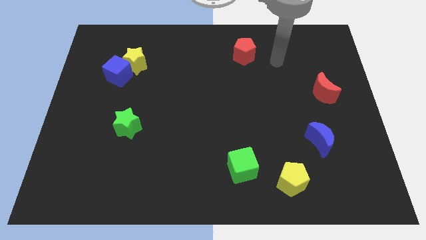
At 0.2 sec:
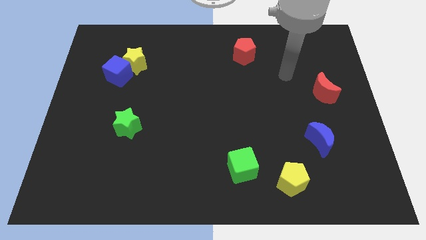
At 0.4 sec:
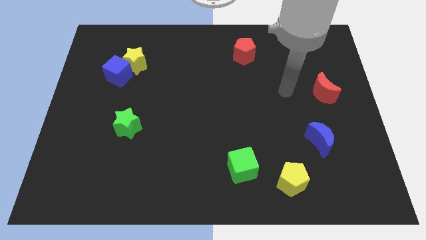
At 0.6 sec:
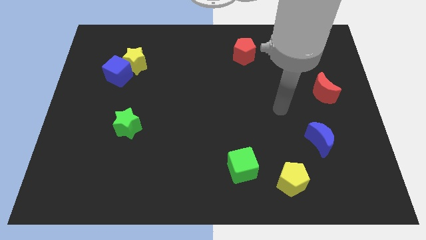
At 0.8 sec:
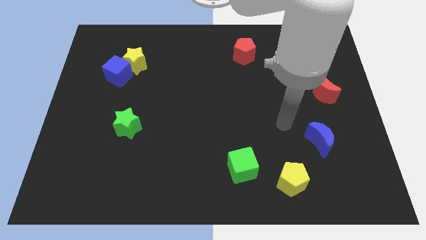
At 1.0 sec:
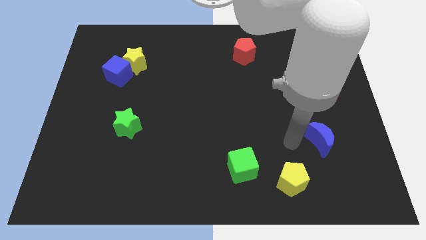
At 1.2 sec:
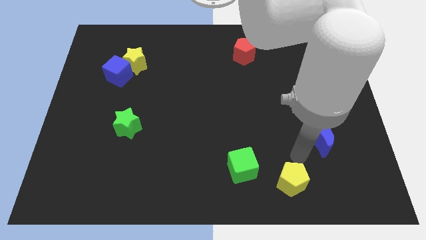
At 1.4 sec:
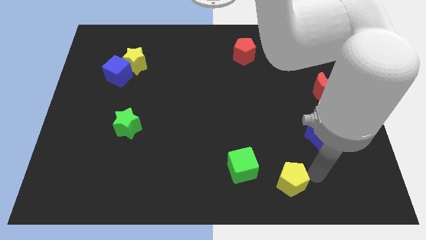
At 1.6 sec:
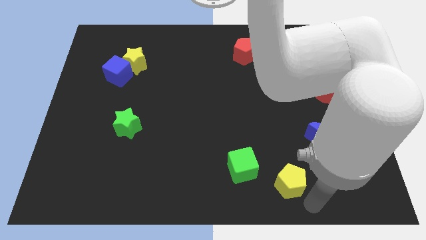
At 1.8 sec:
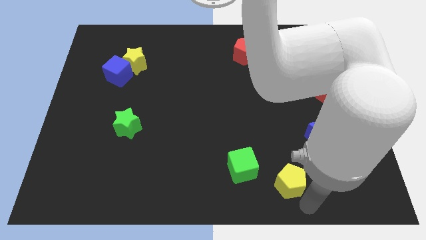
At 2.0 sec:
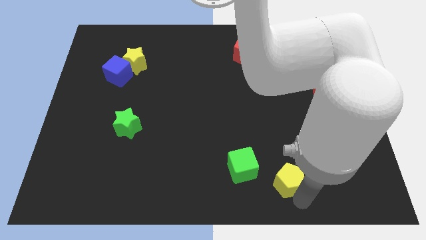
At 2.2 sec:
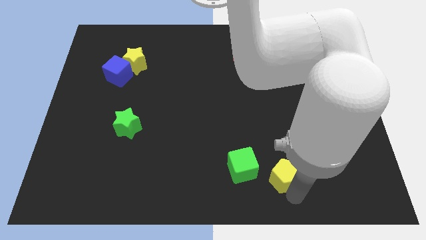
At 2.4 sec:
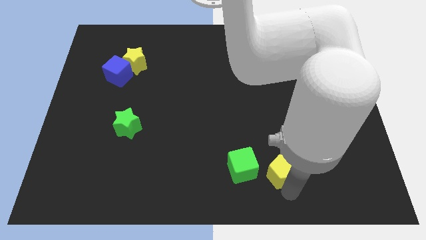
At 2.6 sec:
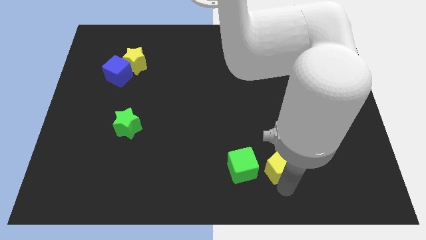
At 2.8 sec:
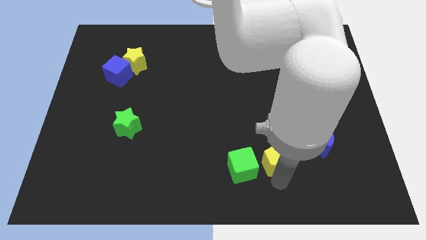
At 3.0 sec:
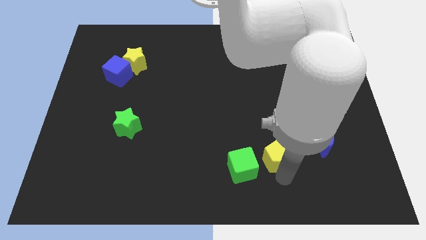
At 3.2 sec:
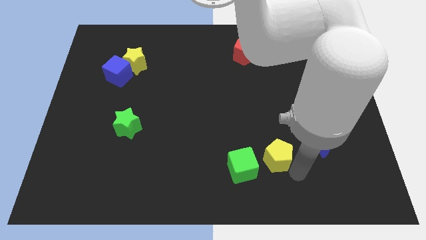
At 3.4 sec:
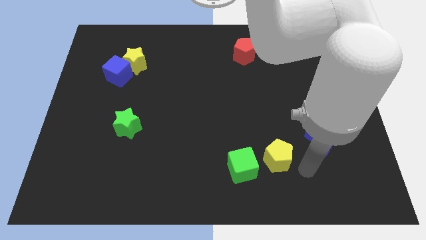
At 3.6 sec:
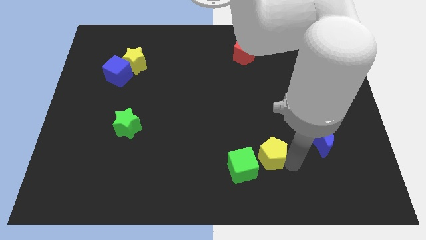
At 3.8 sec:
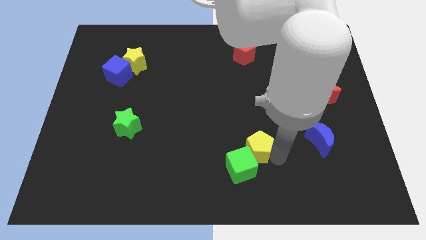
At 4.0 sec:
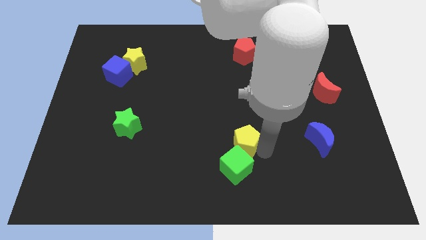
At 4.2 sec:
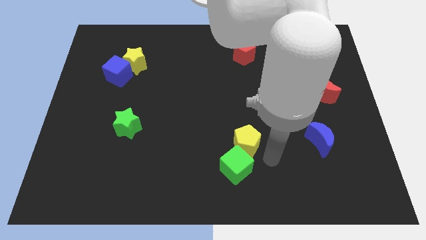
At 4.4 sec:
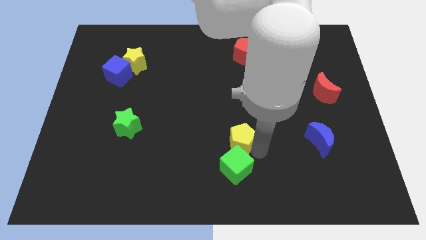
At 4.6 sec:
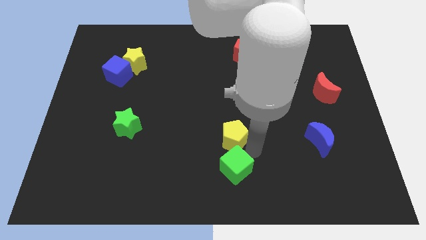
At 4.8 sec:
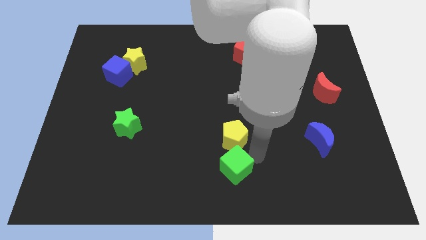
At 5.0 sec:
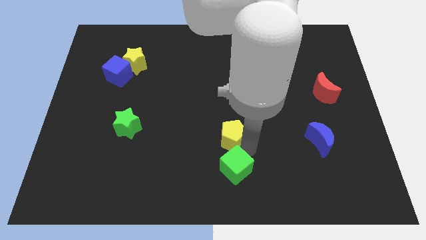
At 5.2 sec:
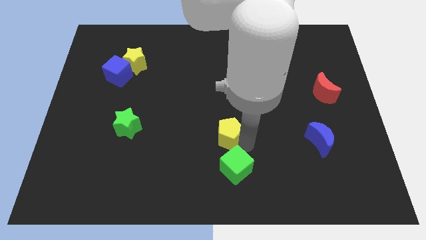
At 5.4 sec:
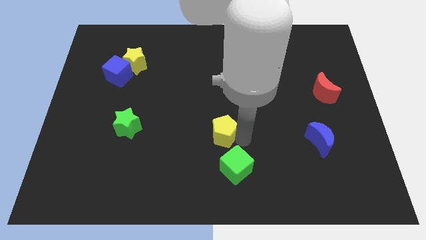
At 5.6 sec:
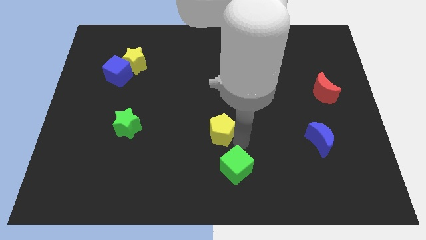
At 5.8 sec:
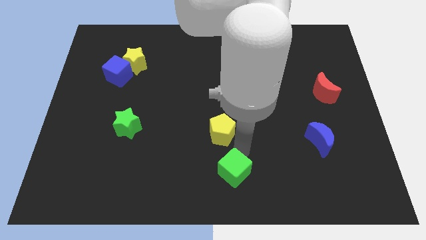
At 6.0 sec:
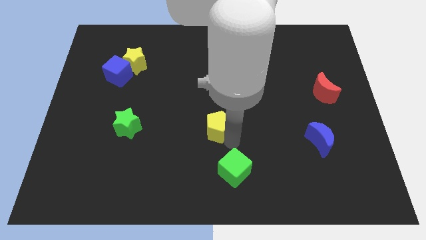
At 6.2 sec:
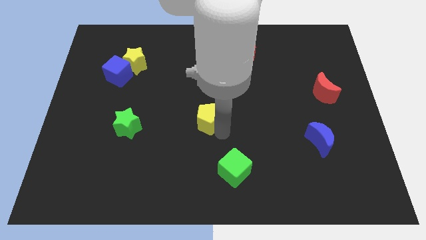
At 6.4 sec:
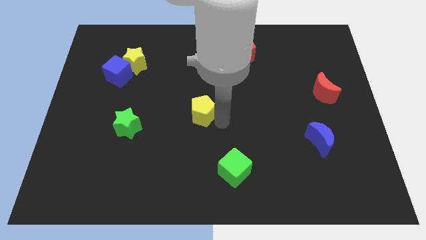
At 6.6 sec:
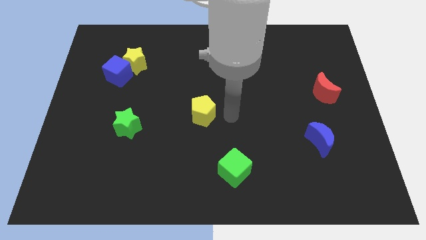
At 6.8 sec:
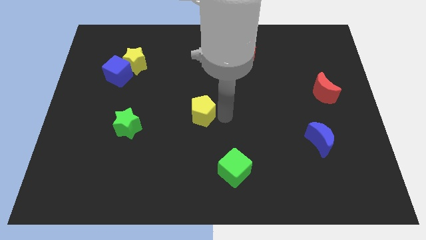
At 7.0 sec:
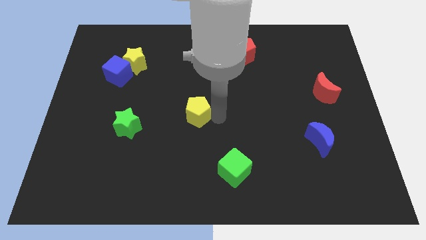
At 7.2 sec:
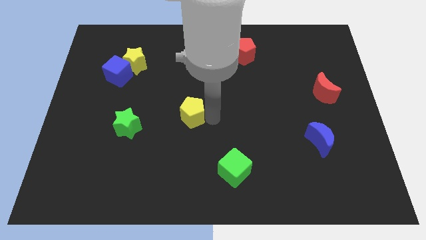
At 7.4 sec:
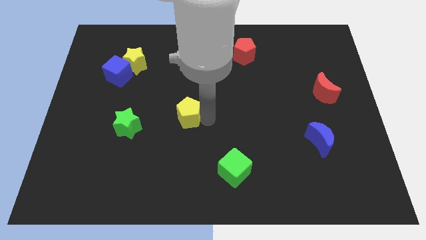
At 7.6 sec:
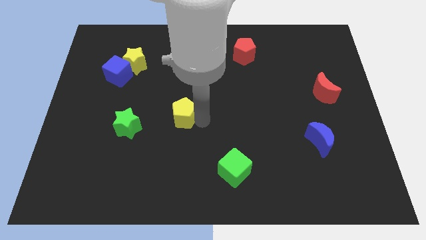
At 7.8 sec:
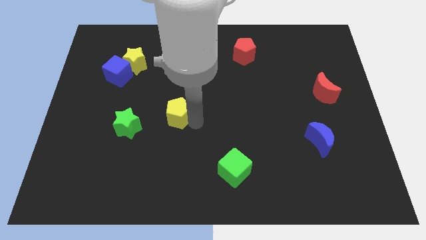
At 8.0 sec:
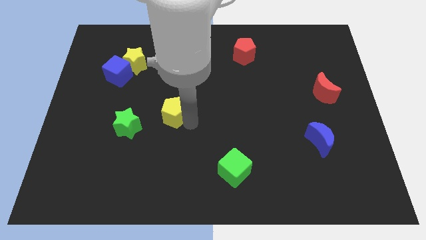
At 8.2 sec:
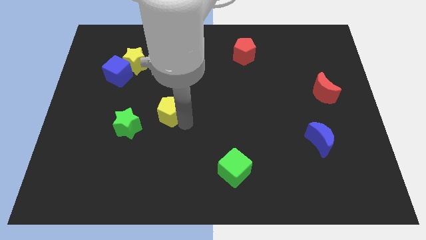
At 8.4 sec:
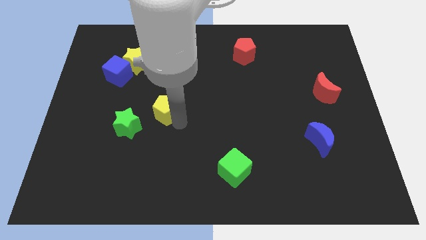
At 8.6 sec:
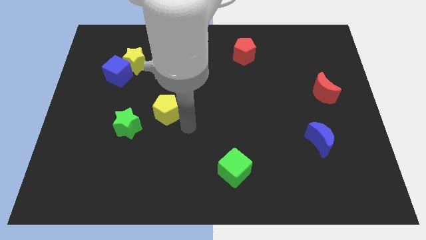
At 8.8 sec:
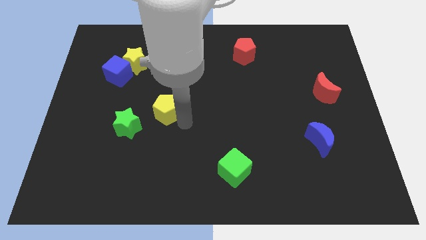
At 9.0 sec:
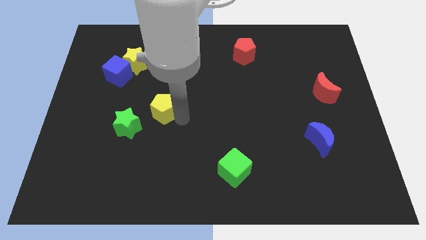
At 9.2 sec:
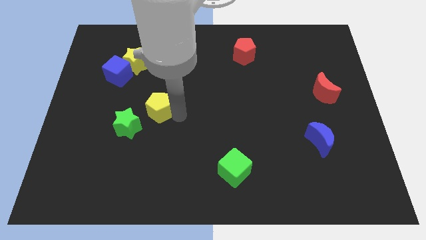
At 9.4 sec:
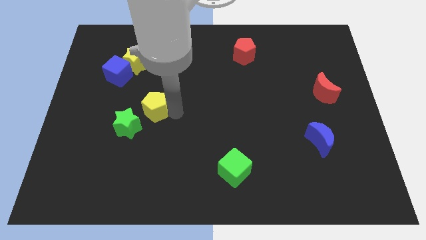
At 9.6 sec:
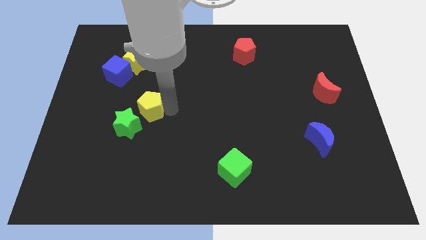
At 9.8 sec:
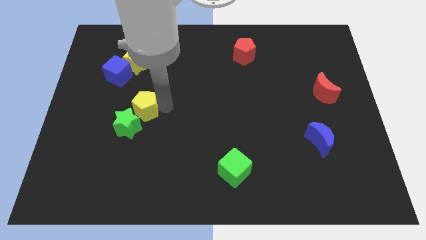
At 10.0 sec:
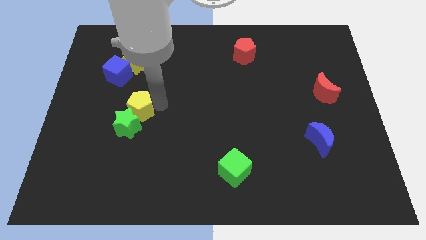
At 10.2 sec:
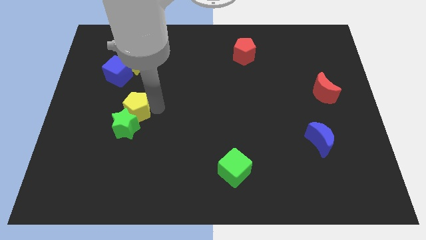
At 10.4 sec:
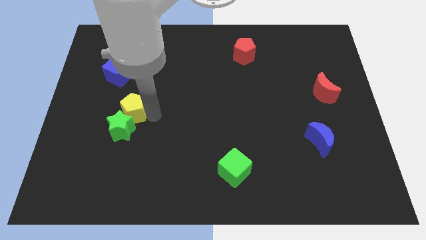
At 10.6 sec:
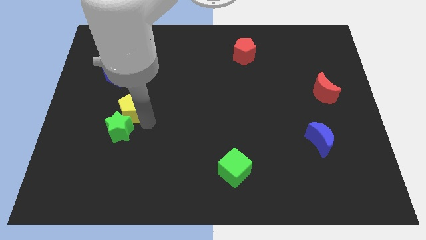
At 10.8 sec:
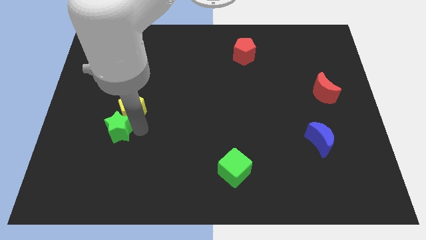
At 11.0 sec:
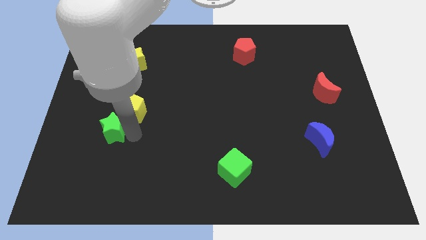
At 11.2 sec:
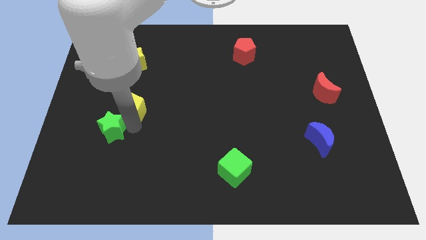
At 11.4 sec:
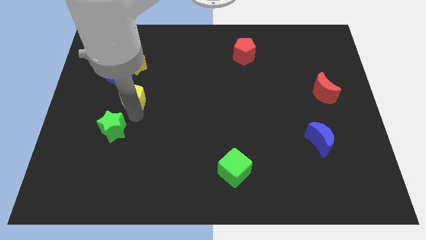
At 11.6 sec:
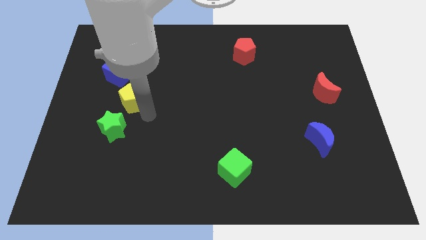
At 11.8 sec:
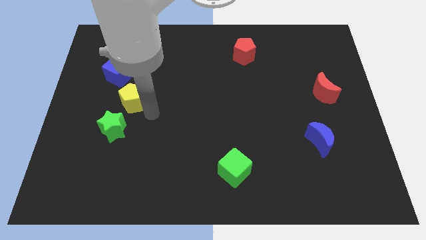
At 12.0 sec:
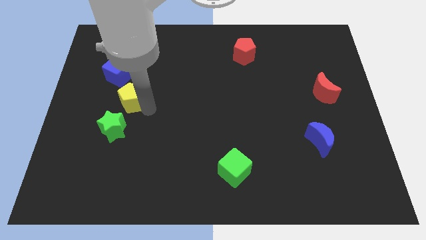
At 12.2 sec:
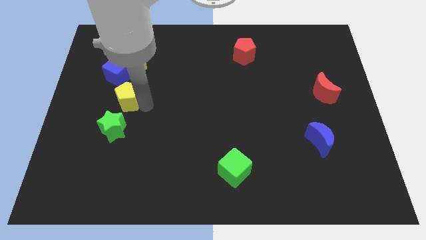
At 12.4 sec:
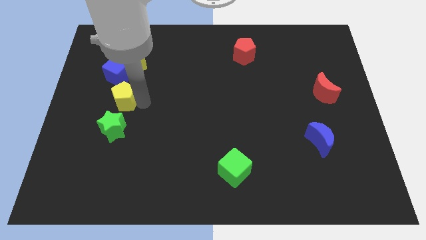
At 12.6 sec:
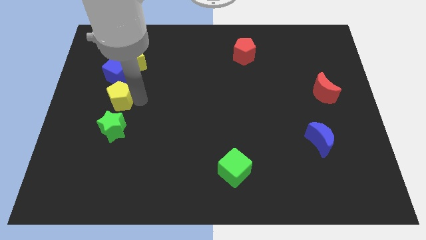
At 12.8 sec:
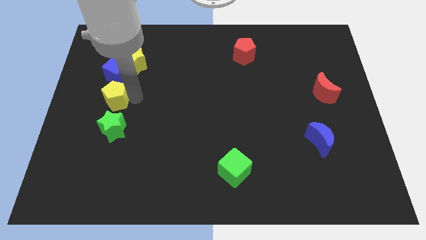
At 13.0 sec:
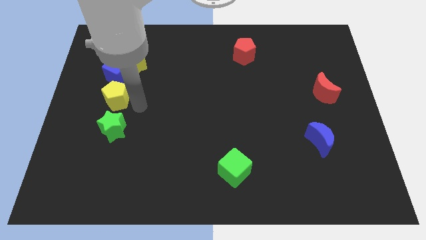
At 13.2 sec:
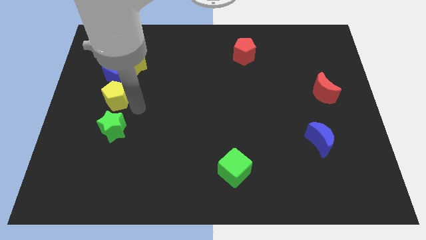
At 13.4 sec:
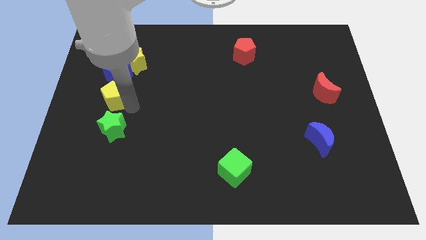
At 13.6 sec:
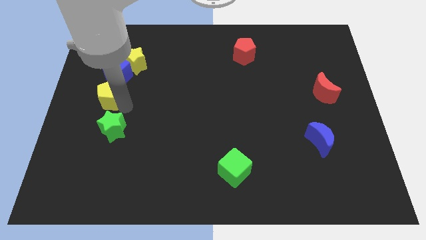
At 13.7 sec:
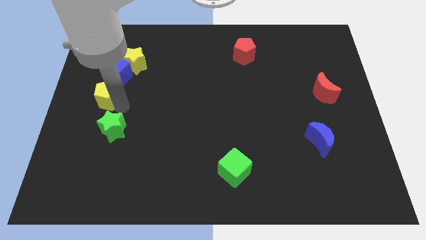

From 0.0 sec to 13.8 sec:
push the yellow pentagon to the bottom left side of the blue cube

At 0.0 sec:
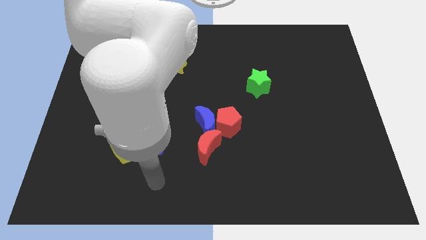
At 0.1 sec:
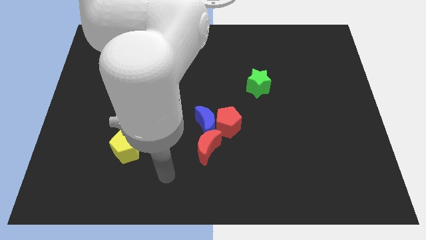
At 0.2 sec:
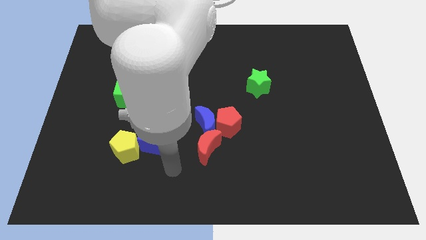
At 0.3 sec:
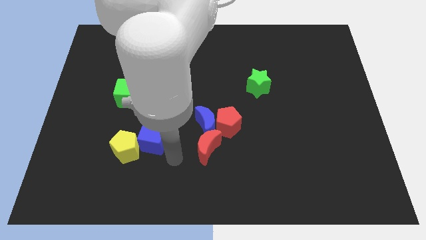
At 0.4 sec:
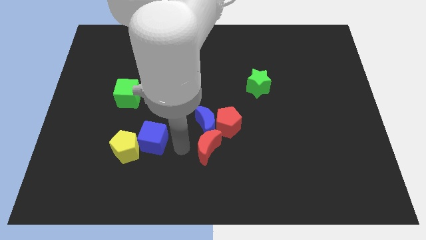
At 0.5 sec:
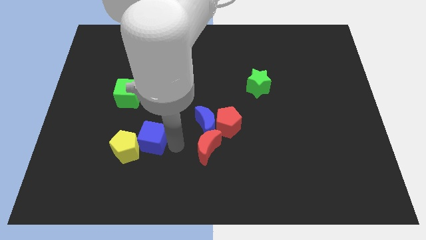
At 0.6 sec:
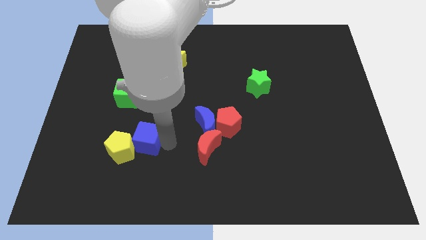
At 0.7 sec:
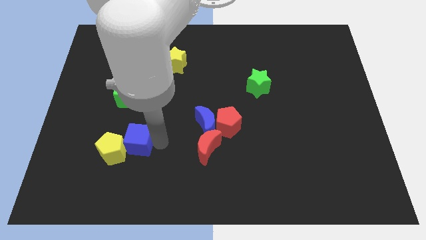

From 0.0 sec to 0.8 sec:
push the blue cube to the bottom side of the green cube
